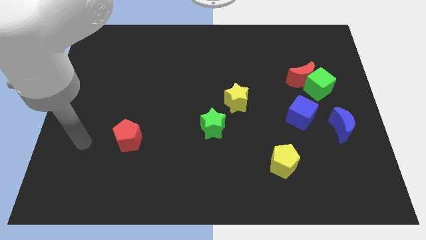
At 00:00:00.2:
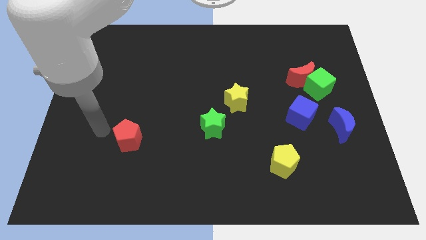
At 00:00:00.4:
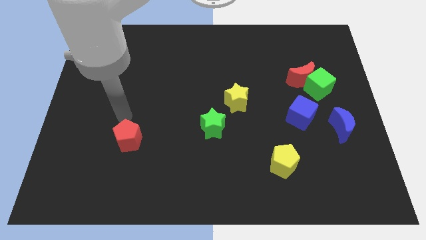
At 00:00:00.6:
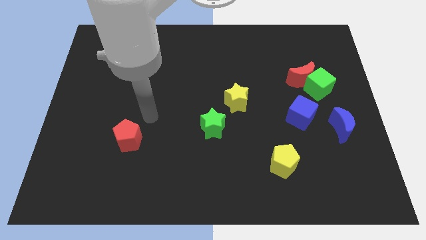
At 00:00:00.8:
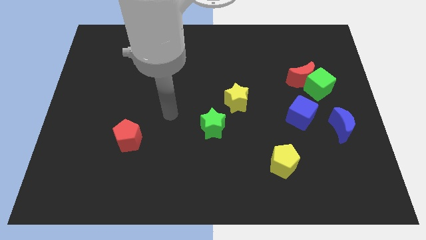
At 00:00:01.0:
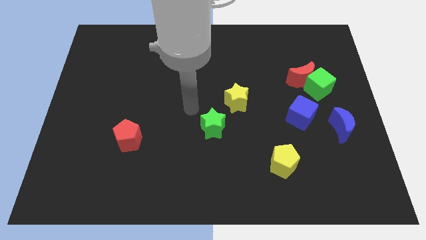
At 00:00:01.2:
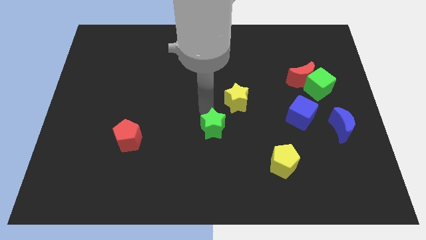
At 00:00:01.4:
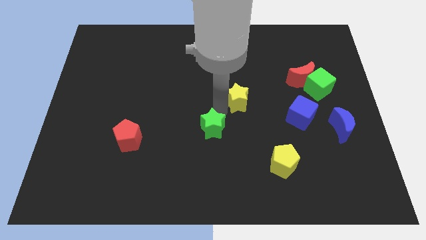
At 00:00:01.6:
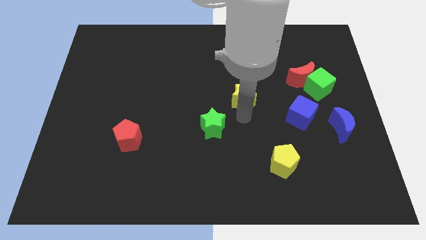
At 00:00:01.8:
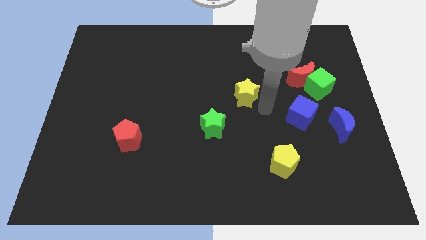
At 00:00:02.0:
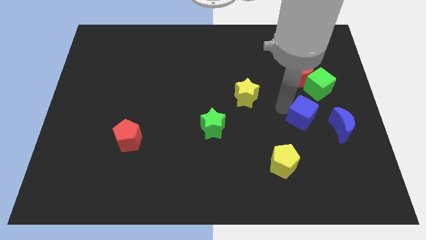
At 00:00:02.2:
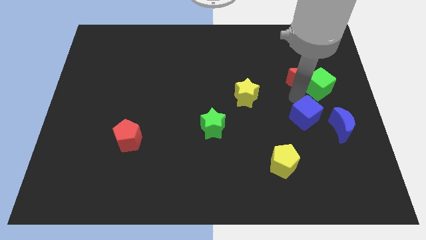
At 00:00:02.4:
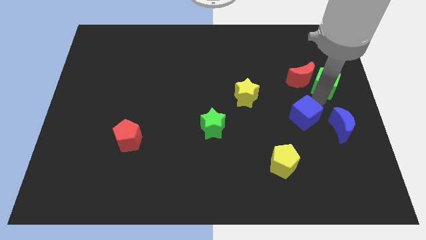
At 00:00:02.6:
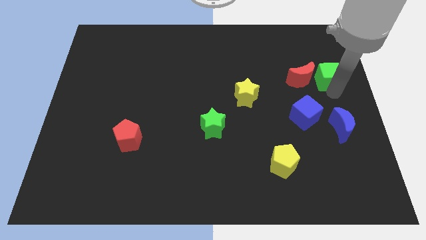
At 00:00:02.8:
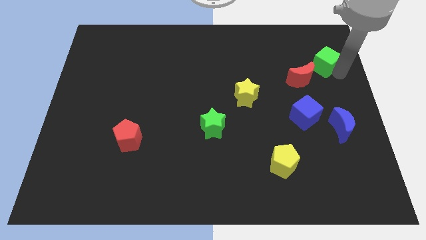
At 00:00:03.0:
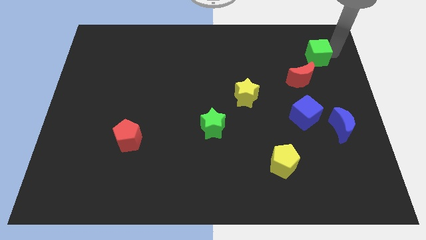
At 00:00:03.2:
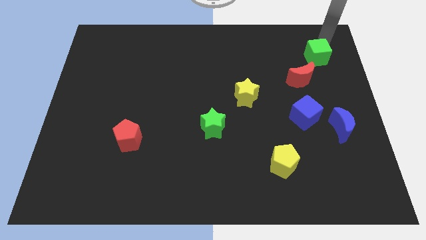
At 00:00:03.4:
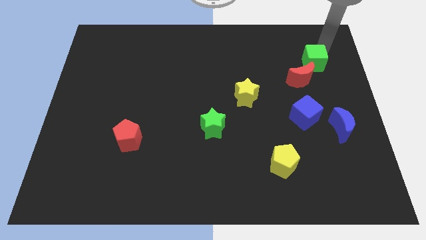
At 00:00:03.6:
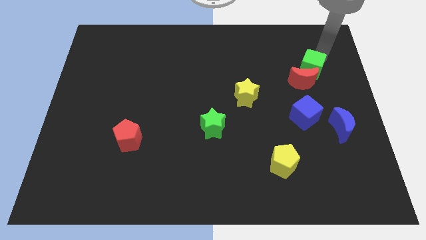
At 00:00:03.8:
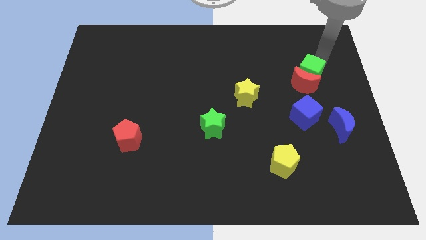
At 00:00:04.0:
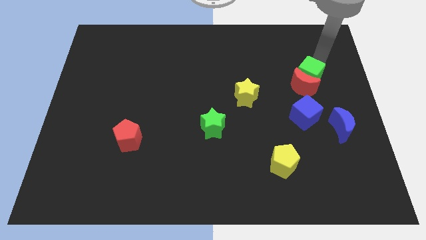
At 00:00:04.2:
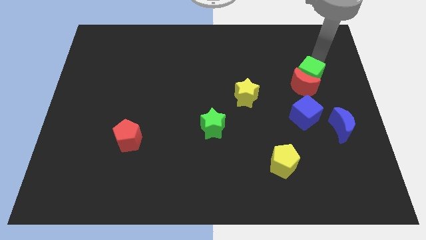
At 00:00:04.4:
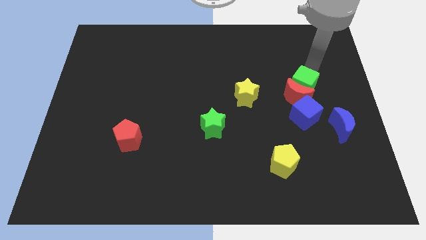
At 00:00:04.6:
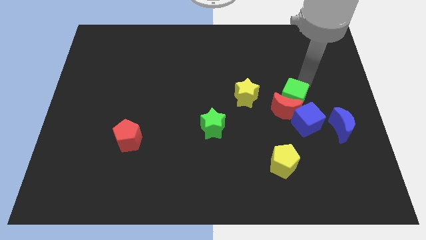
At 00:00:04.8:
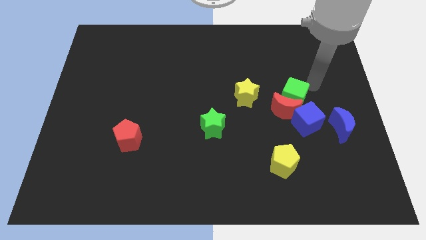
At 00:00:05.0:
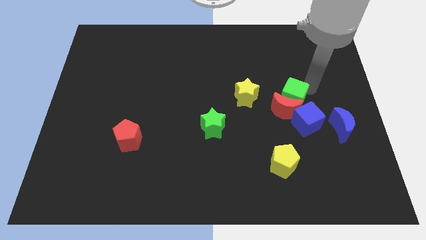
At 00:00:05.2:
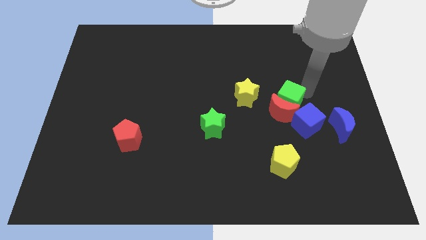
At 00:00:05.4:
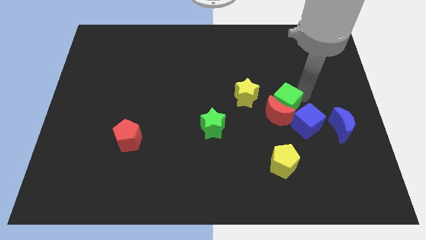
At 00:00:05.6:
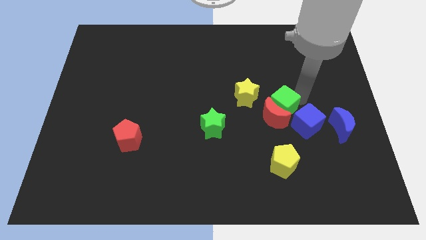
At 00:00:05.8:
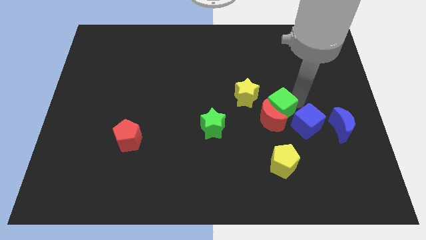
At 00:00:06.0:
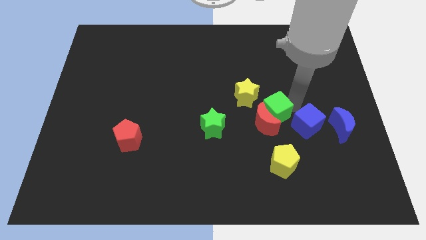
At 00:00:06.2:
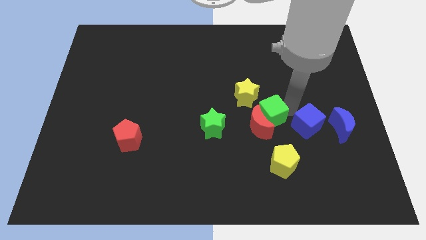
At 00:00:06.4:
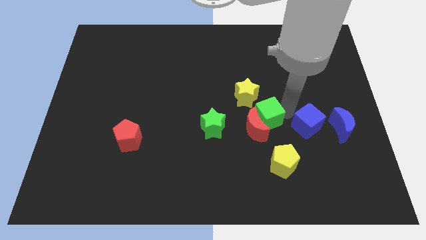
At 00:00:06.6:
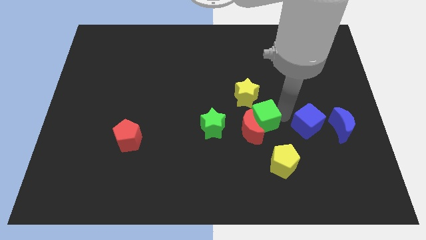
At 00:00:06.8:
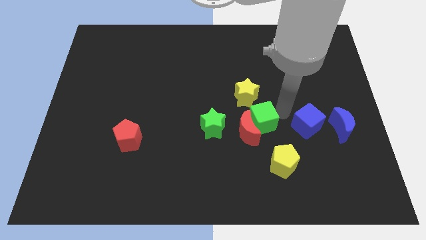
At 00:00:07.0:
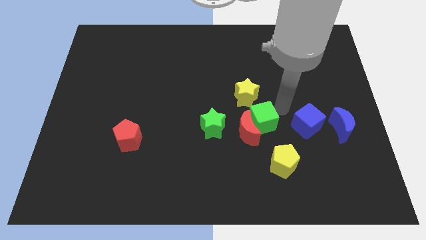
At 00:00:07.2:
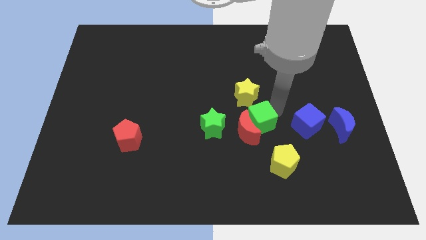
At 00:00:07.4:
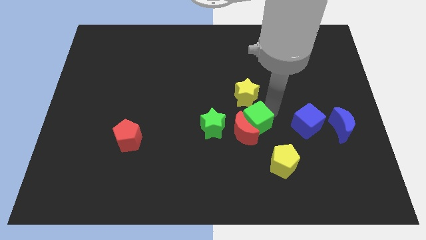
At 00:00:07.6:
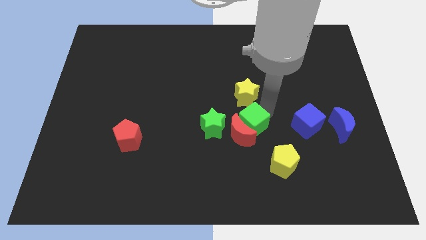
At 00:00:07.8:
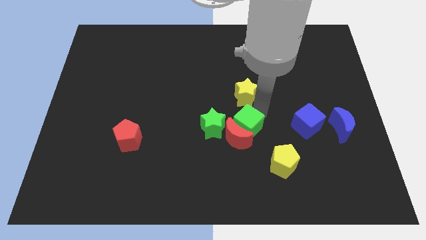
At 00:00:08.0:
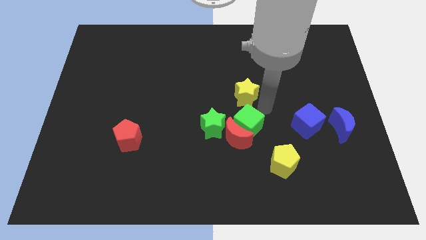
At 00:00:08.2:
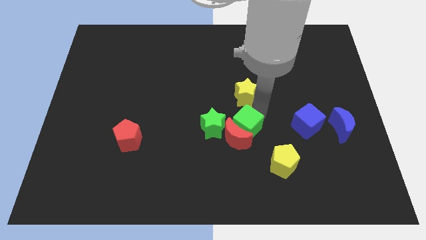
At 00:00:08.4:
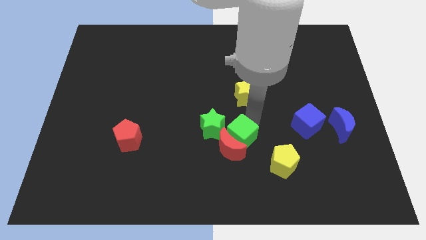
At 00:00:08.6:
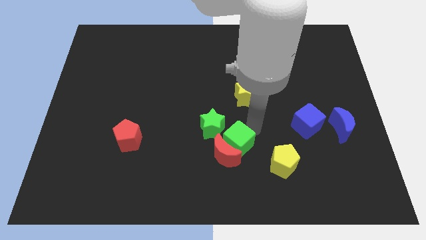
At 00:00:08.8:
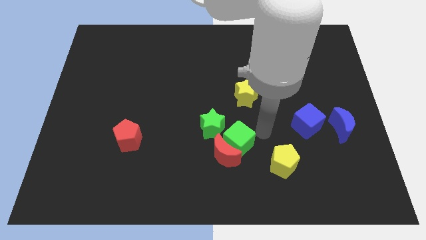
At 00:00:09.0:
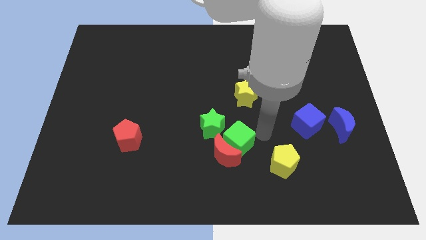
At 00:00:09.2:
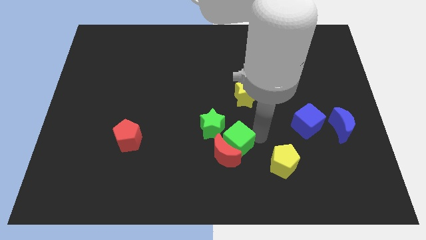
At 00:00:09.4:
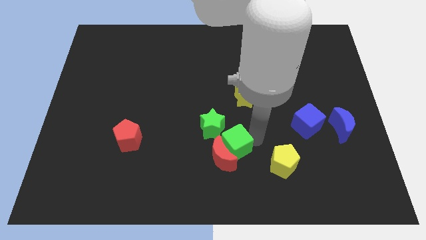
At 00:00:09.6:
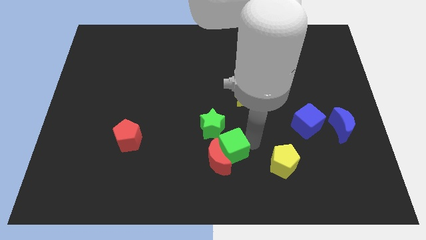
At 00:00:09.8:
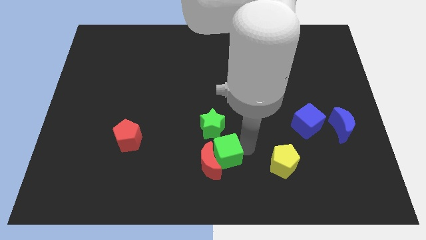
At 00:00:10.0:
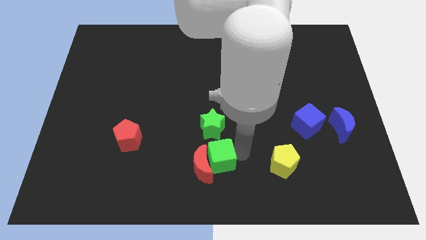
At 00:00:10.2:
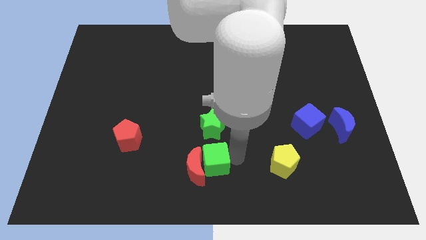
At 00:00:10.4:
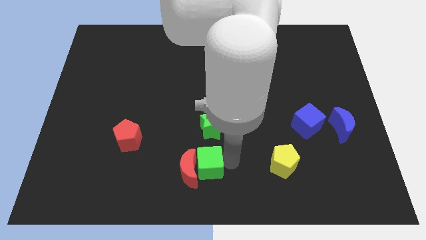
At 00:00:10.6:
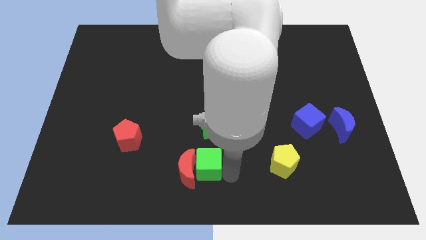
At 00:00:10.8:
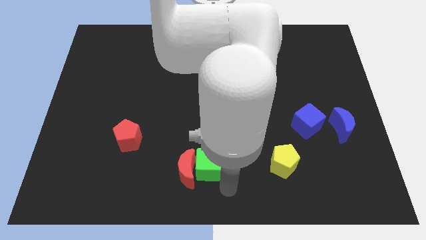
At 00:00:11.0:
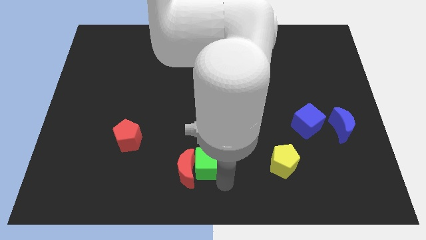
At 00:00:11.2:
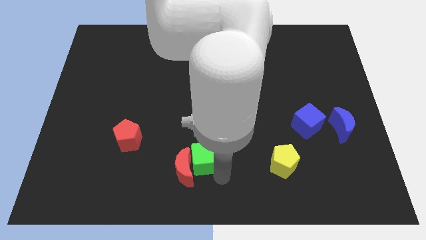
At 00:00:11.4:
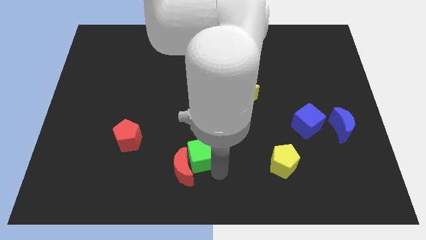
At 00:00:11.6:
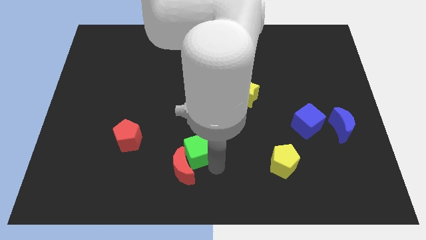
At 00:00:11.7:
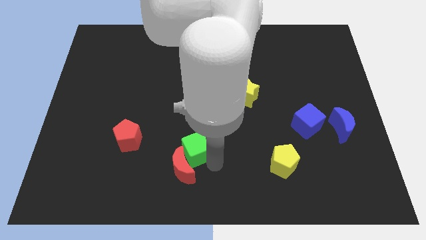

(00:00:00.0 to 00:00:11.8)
slide the green cube just right of the red pentagon

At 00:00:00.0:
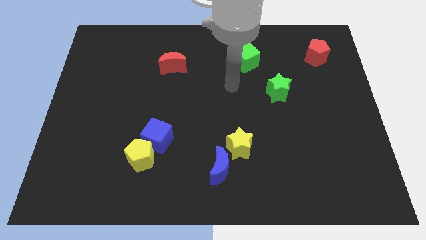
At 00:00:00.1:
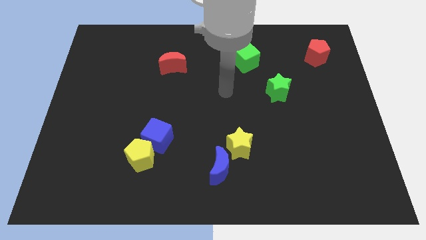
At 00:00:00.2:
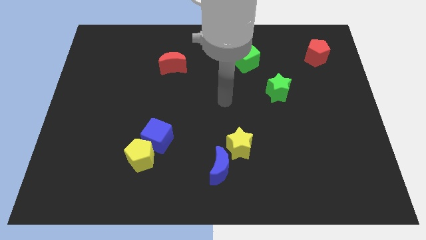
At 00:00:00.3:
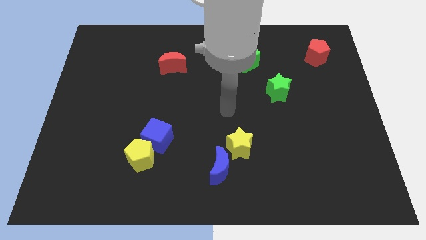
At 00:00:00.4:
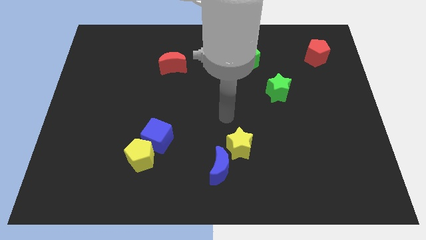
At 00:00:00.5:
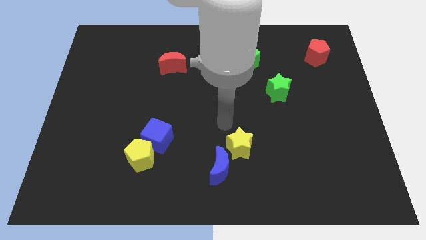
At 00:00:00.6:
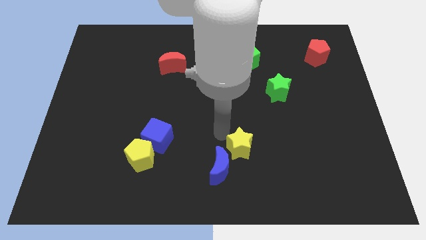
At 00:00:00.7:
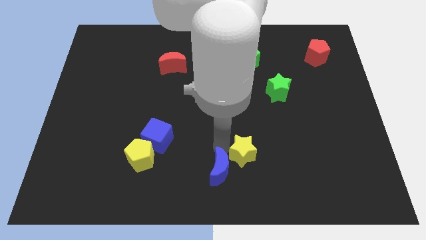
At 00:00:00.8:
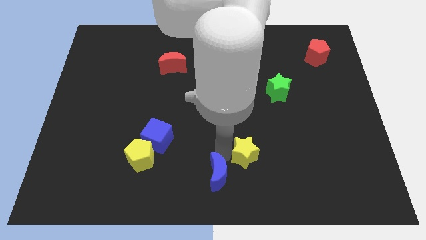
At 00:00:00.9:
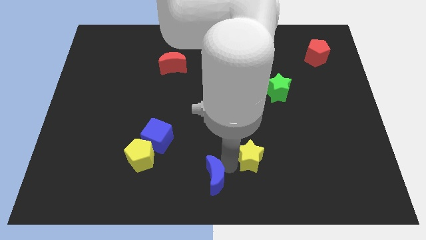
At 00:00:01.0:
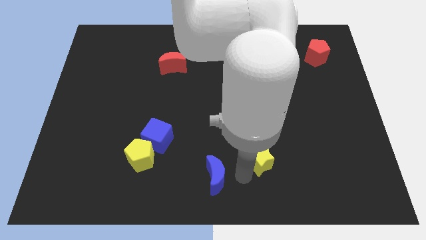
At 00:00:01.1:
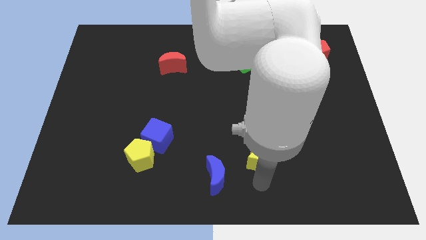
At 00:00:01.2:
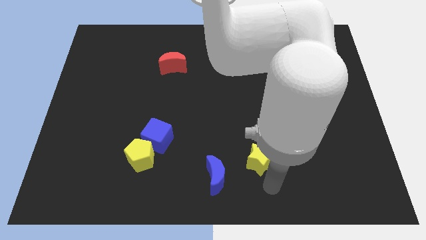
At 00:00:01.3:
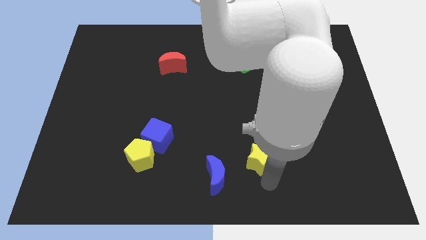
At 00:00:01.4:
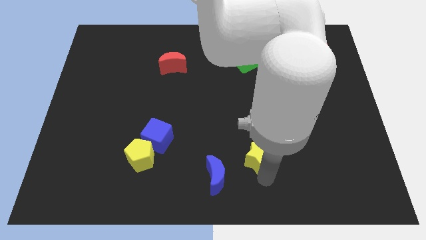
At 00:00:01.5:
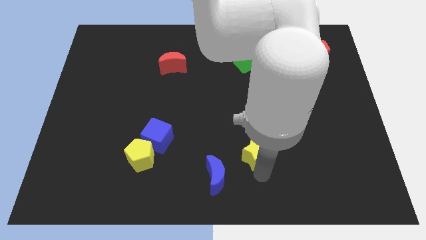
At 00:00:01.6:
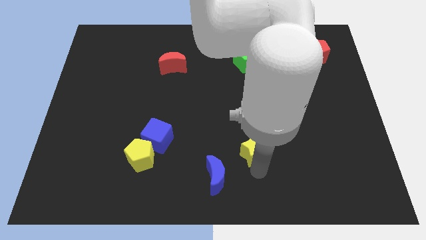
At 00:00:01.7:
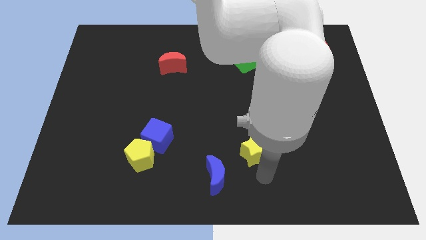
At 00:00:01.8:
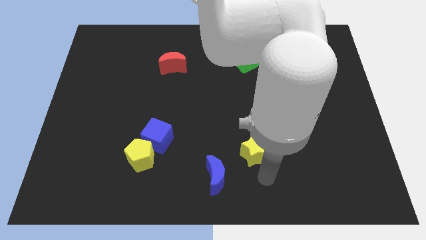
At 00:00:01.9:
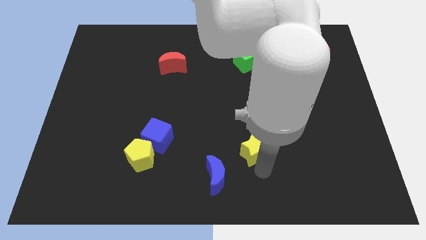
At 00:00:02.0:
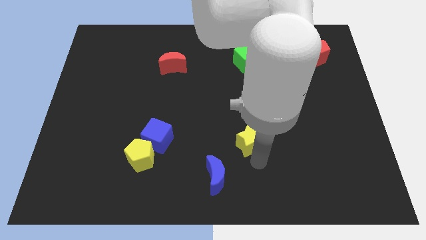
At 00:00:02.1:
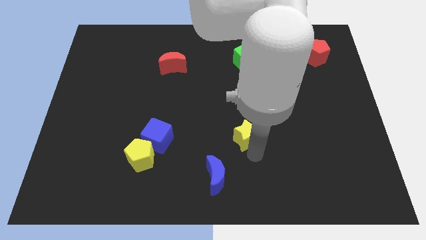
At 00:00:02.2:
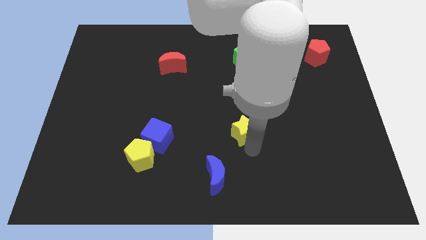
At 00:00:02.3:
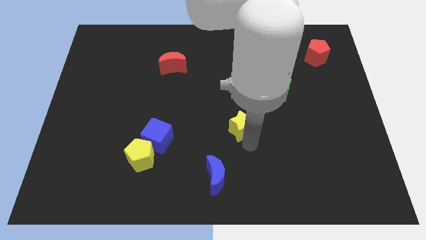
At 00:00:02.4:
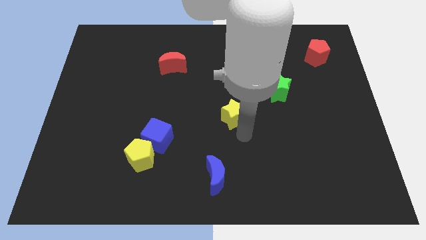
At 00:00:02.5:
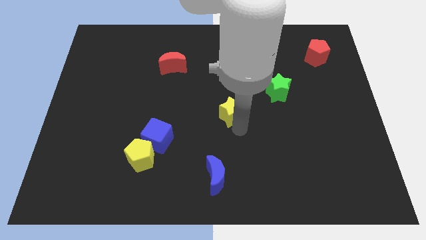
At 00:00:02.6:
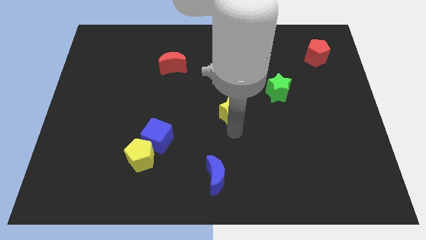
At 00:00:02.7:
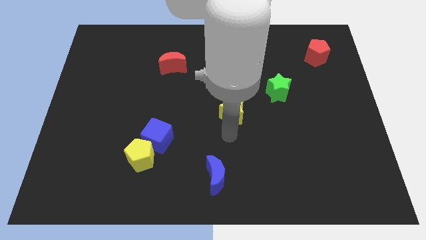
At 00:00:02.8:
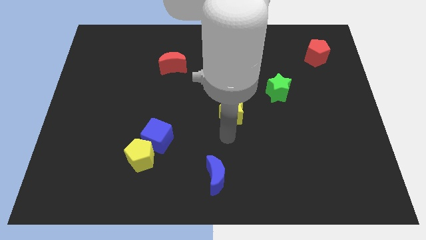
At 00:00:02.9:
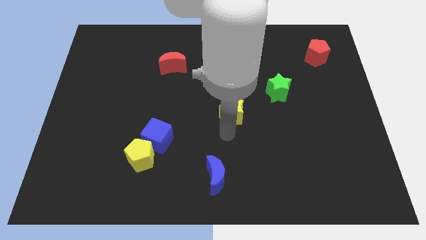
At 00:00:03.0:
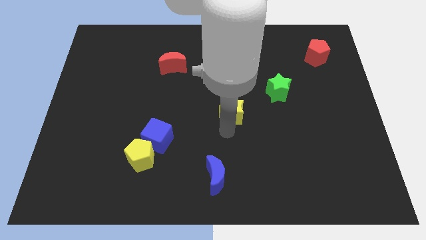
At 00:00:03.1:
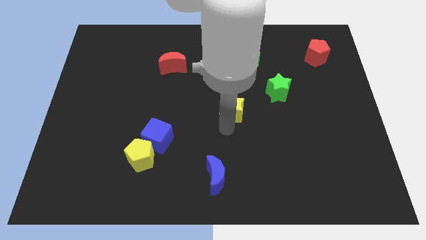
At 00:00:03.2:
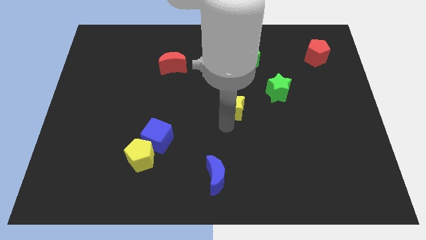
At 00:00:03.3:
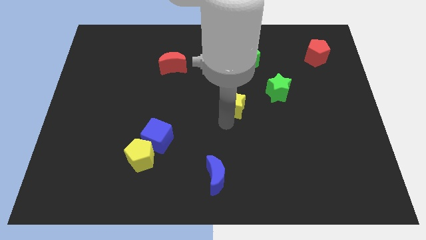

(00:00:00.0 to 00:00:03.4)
move the yellow star to the left side of the green star
